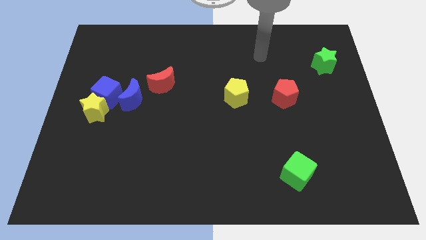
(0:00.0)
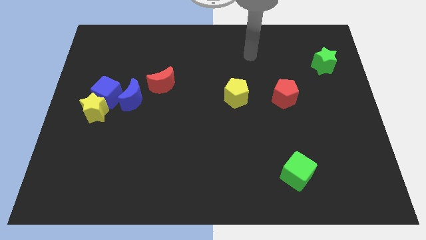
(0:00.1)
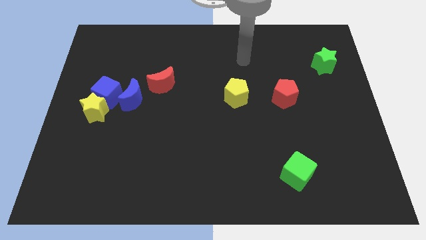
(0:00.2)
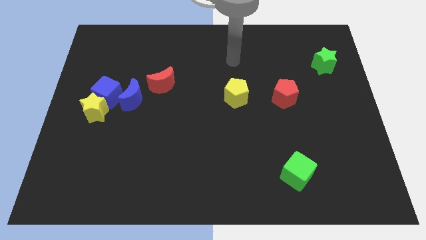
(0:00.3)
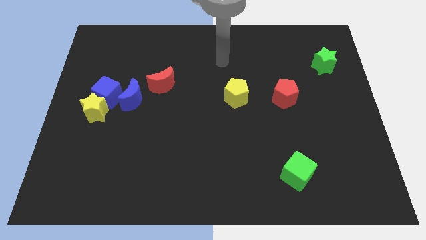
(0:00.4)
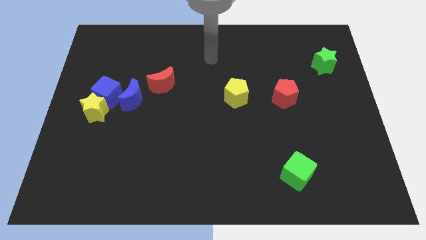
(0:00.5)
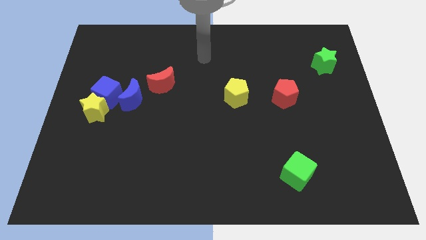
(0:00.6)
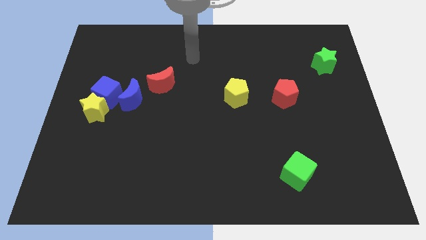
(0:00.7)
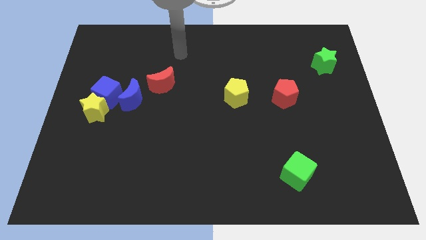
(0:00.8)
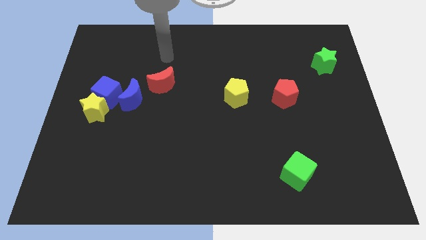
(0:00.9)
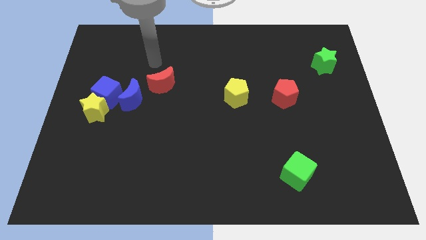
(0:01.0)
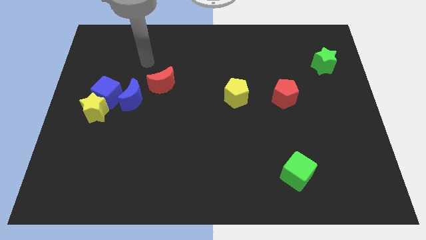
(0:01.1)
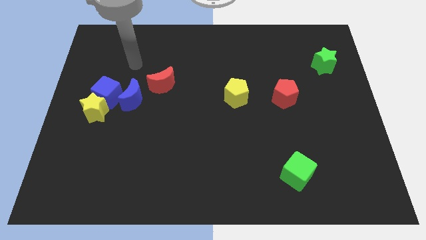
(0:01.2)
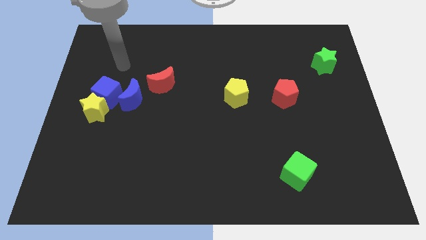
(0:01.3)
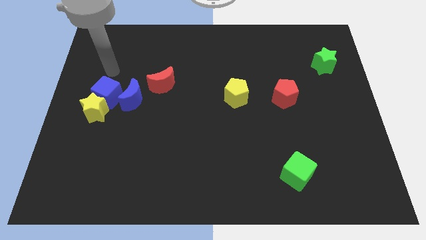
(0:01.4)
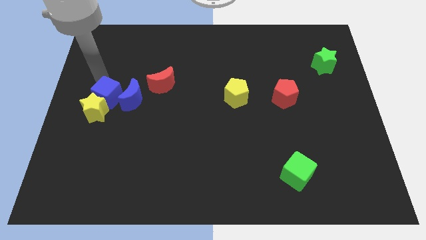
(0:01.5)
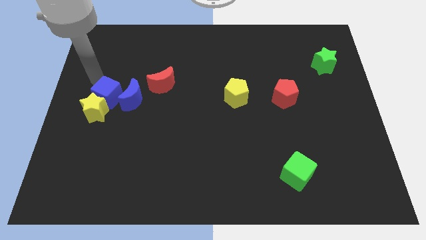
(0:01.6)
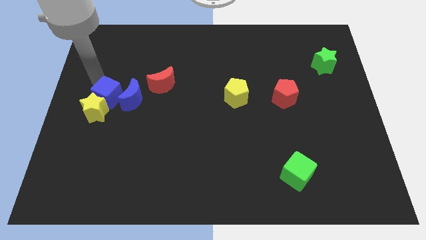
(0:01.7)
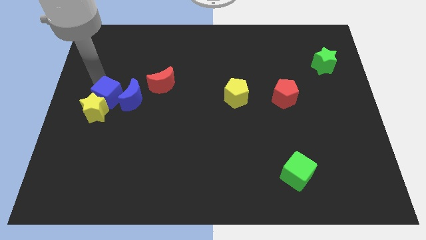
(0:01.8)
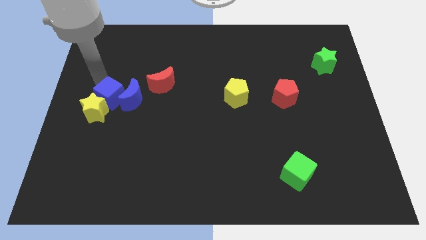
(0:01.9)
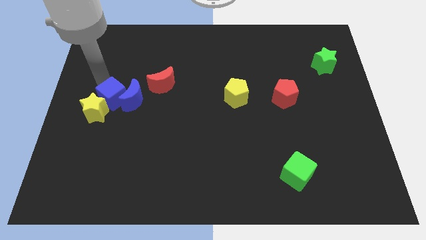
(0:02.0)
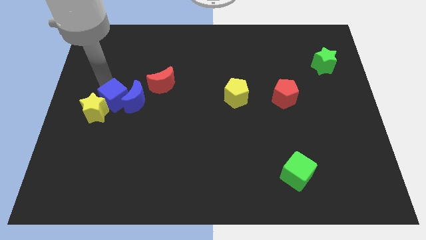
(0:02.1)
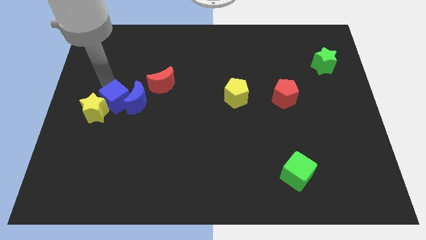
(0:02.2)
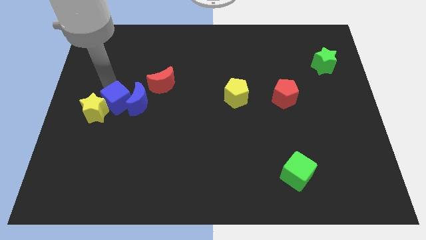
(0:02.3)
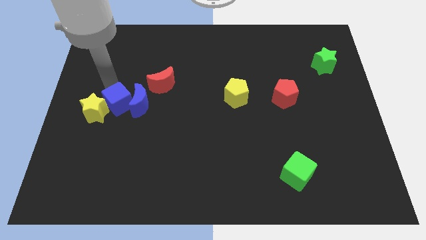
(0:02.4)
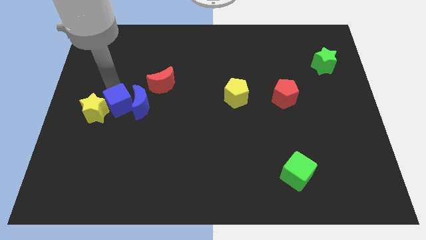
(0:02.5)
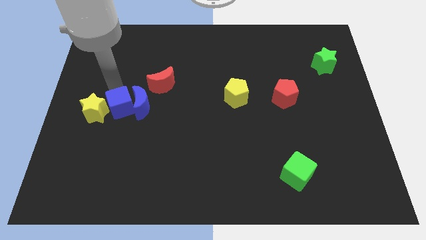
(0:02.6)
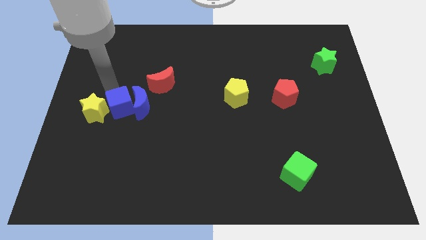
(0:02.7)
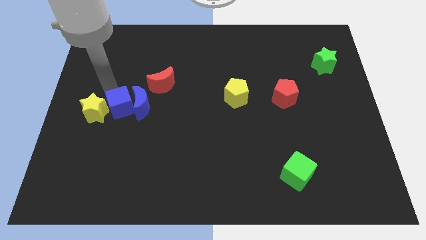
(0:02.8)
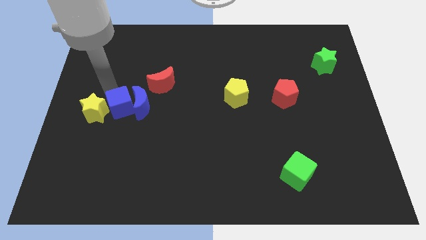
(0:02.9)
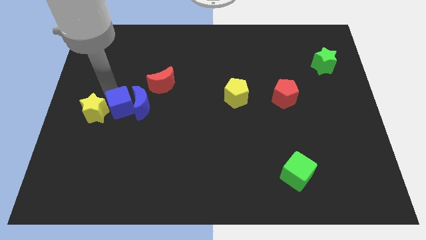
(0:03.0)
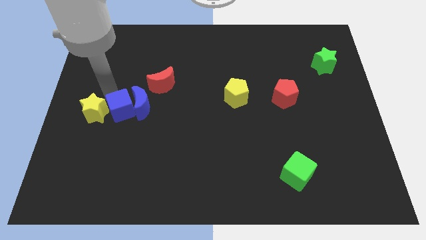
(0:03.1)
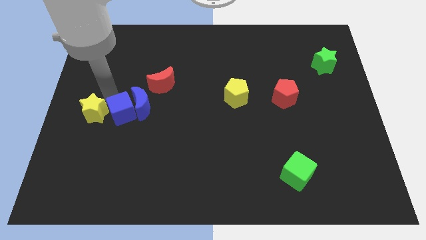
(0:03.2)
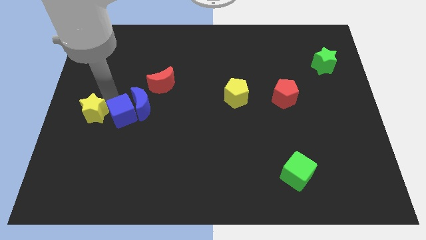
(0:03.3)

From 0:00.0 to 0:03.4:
slightly push the blue cube down and right

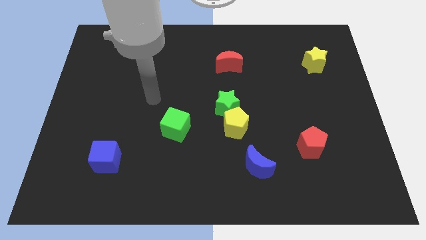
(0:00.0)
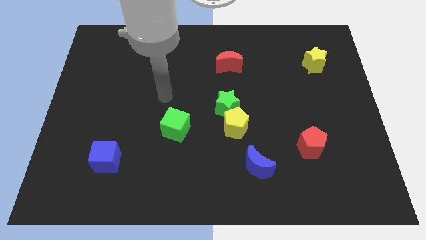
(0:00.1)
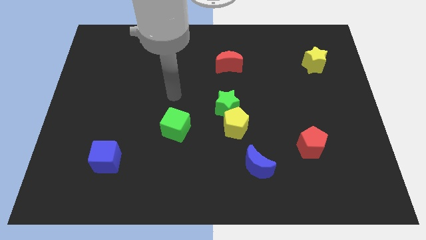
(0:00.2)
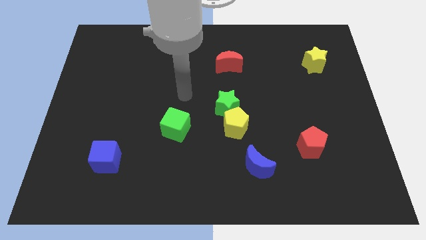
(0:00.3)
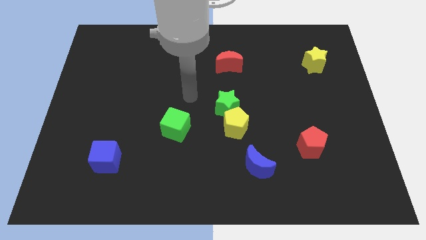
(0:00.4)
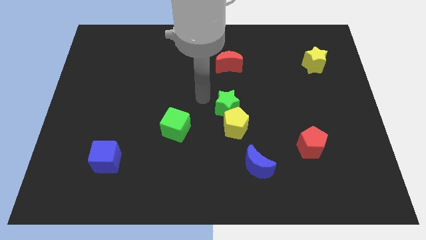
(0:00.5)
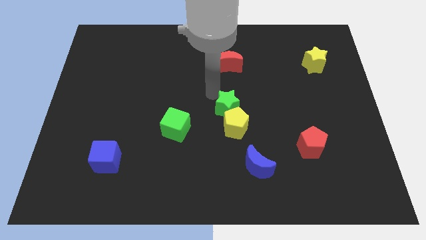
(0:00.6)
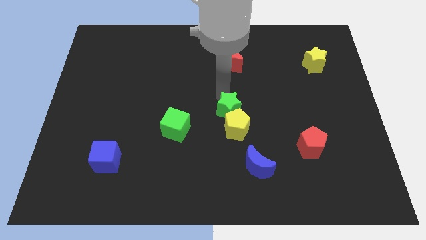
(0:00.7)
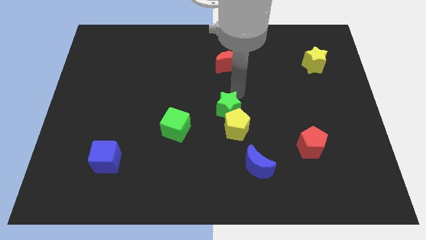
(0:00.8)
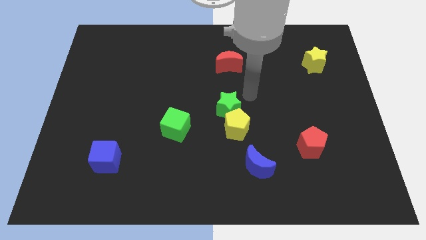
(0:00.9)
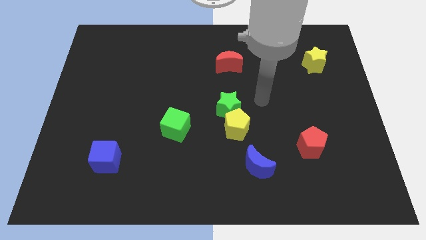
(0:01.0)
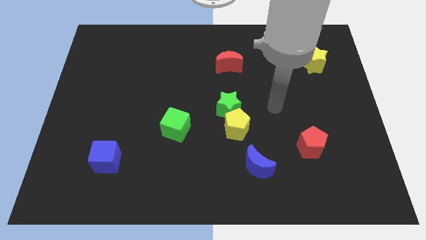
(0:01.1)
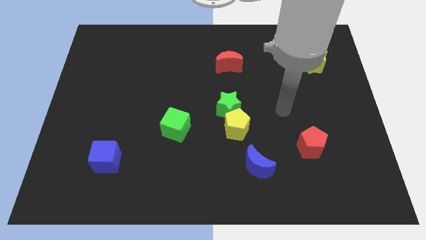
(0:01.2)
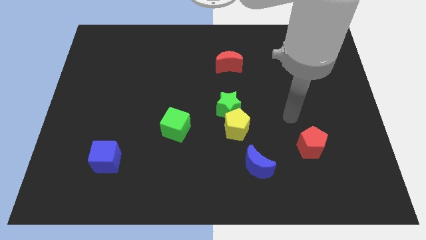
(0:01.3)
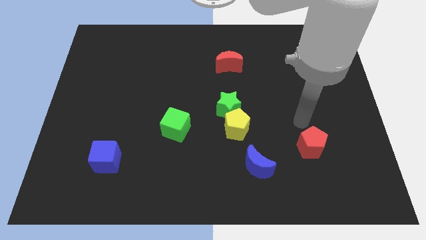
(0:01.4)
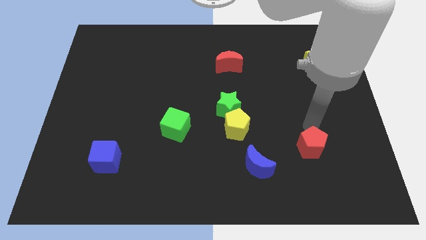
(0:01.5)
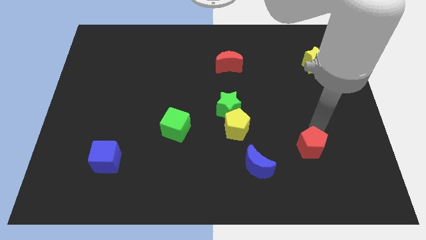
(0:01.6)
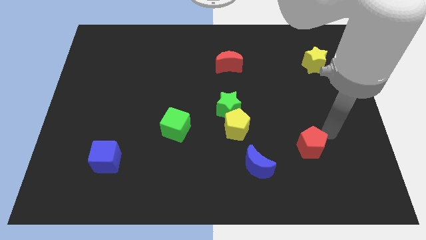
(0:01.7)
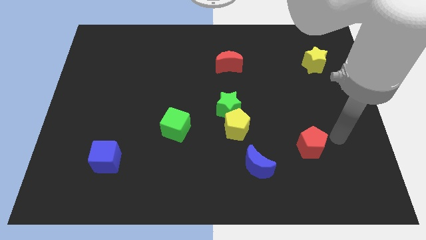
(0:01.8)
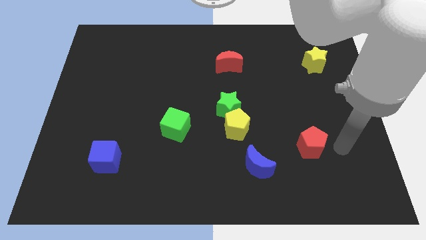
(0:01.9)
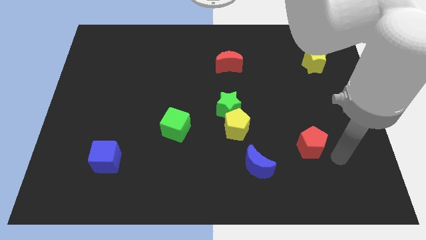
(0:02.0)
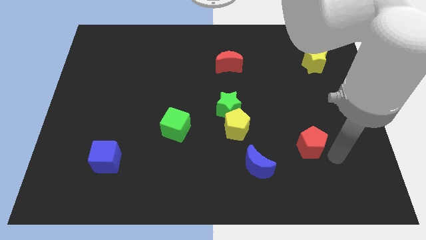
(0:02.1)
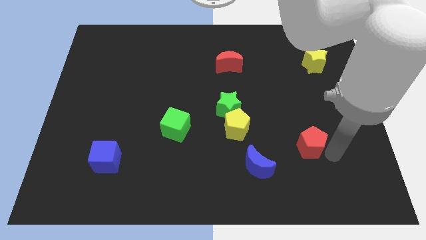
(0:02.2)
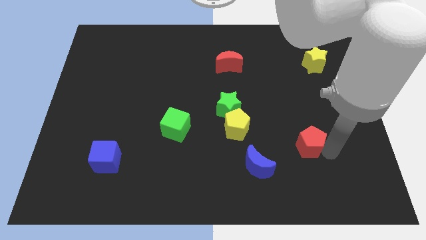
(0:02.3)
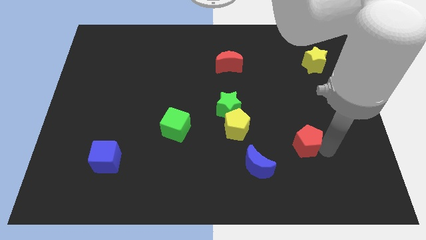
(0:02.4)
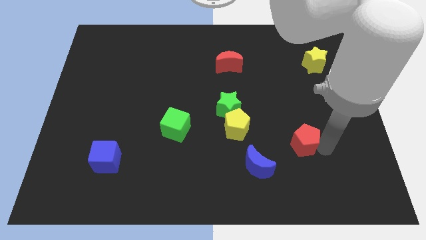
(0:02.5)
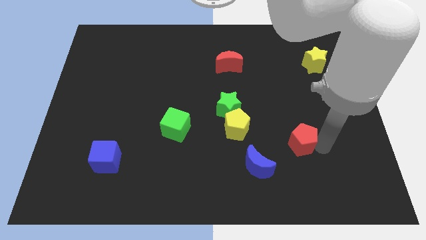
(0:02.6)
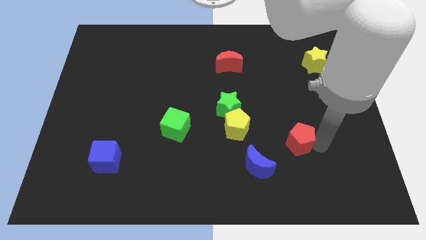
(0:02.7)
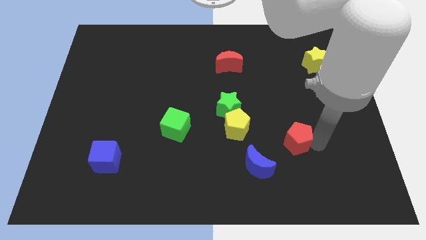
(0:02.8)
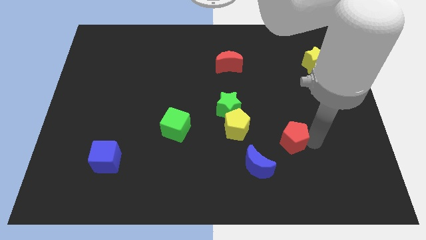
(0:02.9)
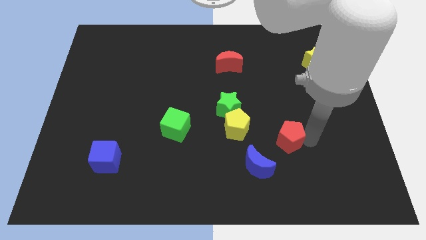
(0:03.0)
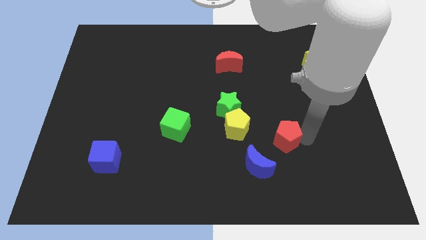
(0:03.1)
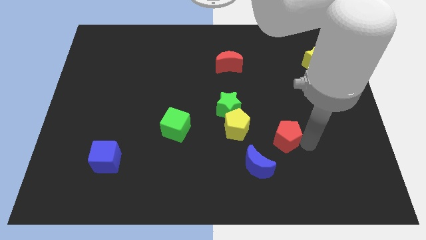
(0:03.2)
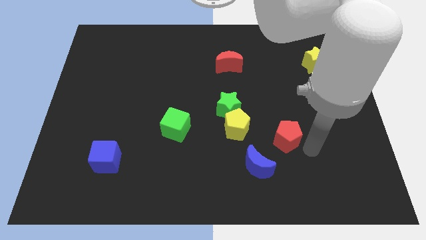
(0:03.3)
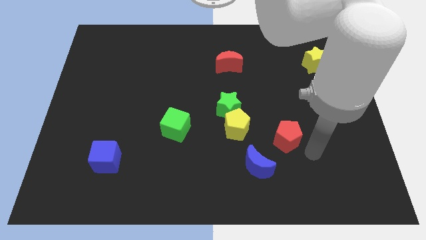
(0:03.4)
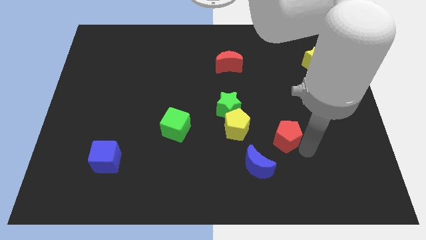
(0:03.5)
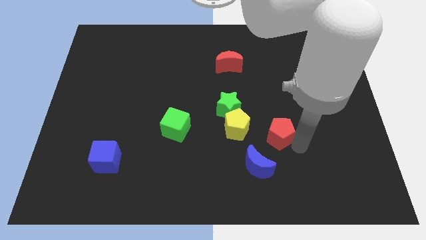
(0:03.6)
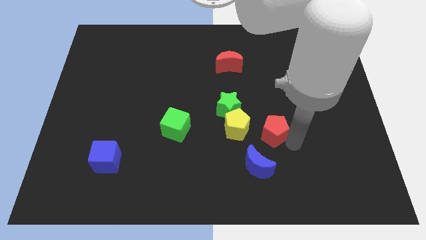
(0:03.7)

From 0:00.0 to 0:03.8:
slightly push the red pentagon up and then left

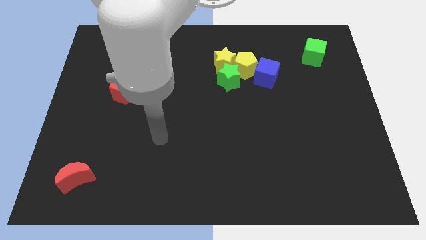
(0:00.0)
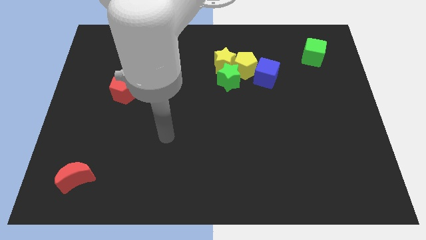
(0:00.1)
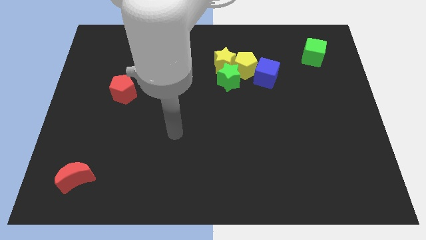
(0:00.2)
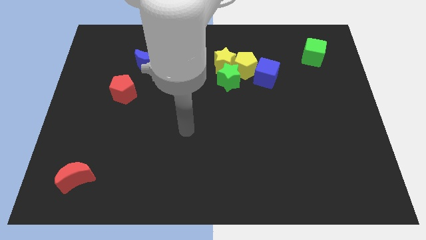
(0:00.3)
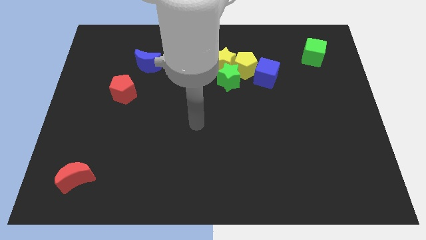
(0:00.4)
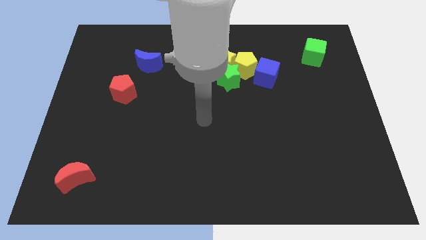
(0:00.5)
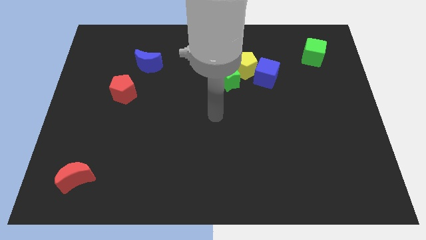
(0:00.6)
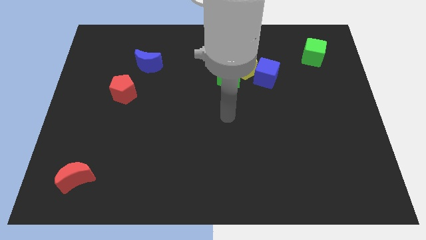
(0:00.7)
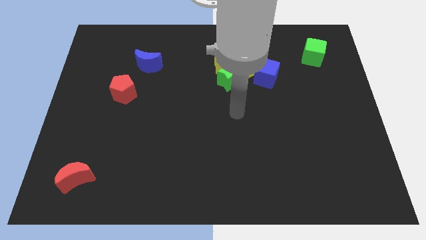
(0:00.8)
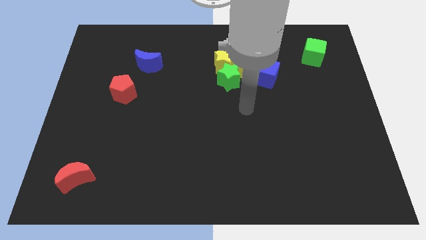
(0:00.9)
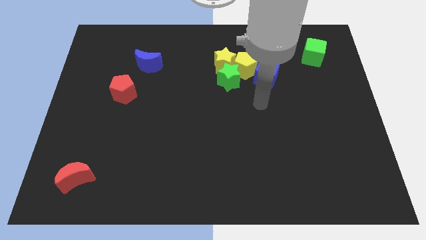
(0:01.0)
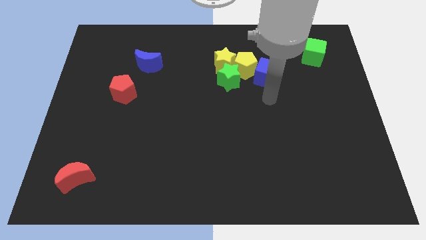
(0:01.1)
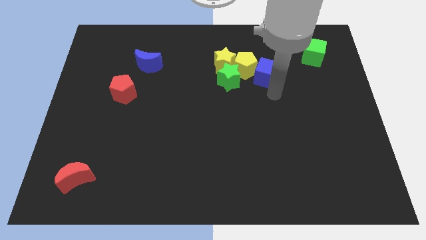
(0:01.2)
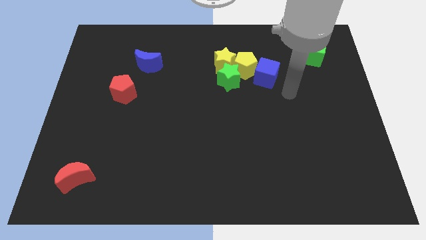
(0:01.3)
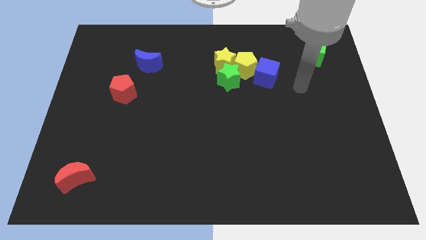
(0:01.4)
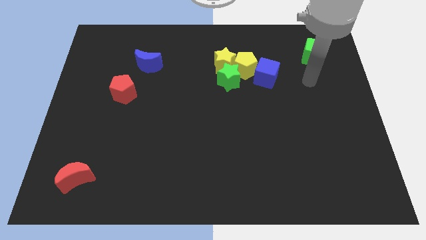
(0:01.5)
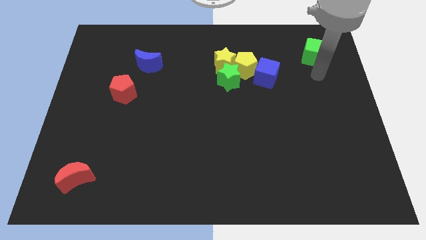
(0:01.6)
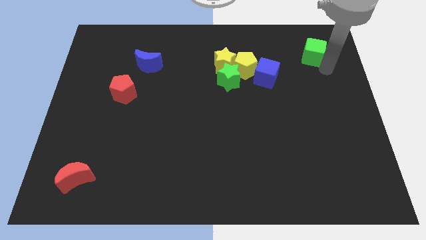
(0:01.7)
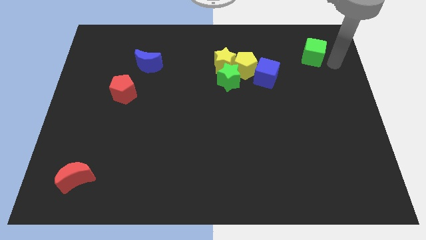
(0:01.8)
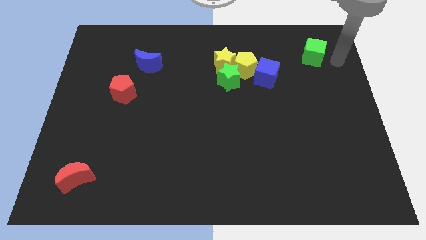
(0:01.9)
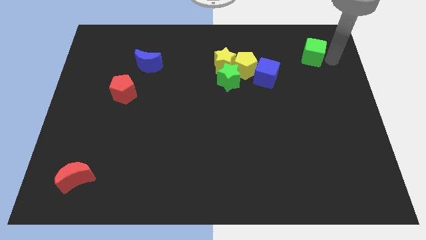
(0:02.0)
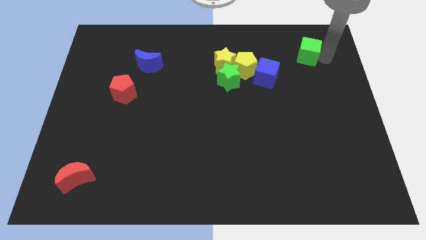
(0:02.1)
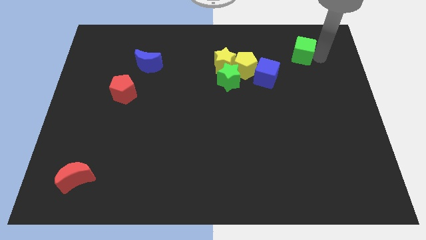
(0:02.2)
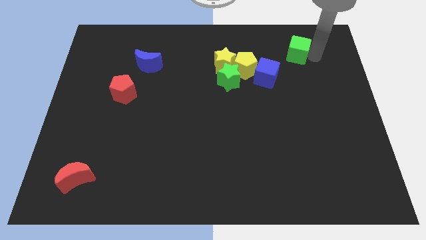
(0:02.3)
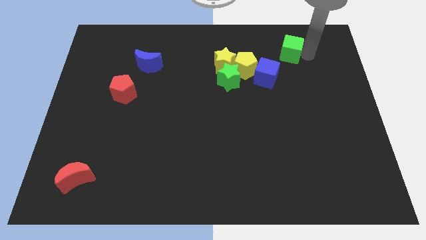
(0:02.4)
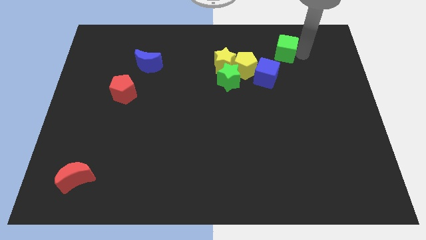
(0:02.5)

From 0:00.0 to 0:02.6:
move the green cube left somewhat
